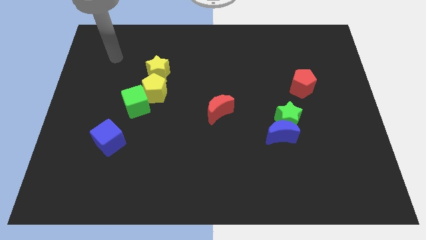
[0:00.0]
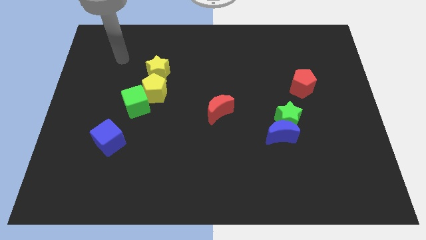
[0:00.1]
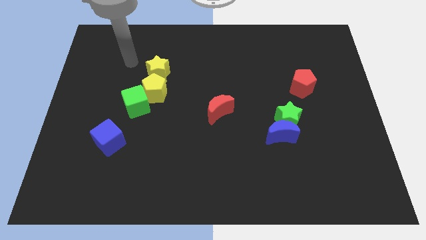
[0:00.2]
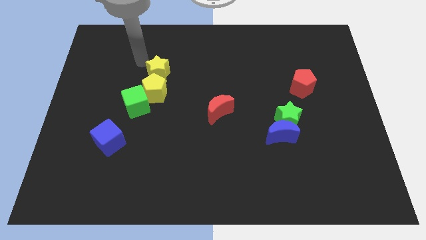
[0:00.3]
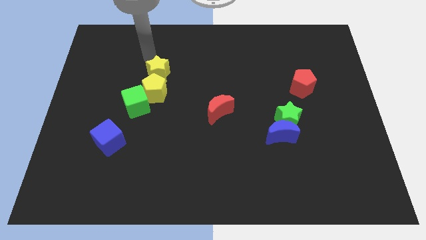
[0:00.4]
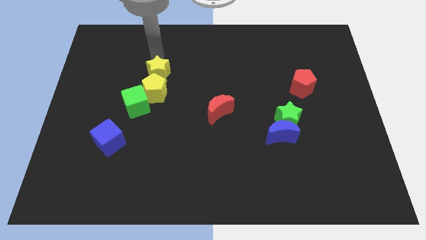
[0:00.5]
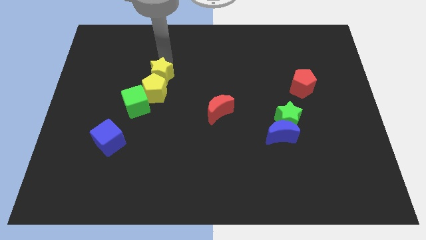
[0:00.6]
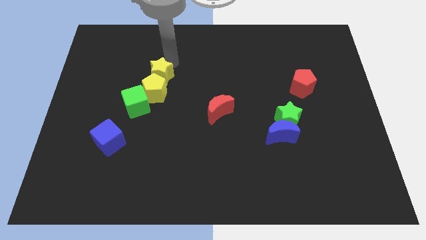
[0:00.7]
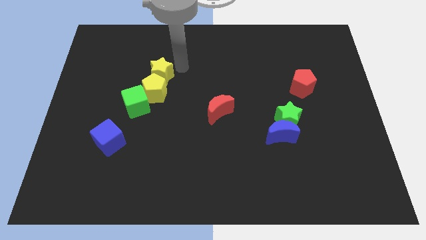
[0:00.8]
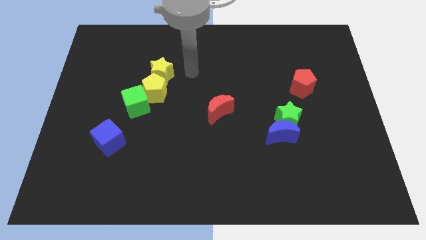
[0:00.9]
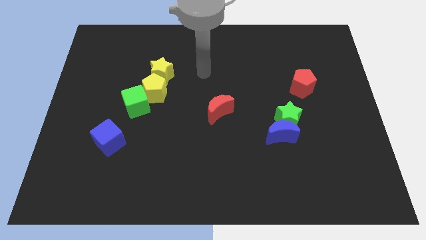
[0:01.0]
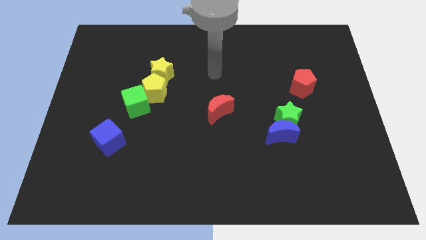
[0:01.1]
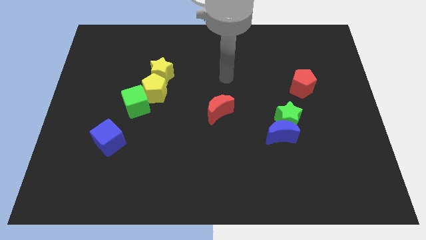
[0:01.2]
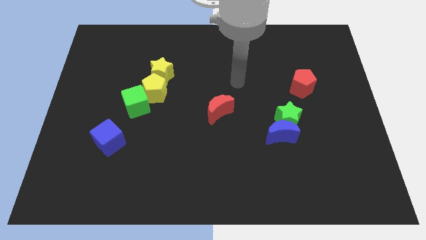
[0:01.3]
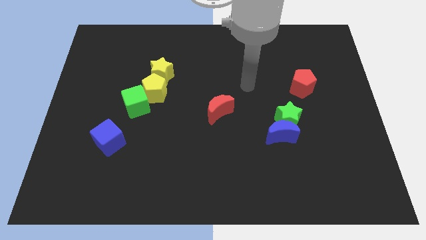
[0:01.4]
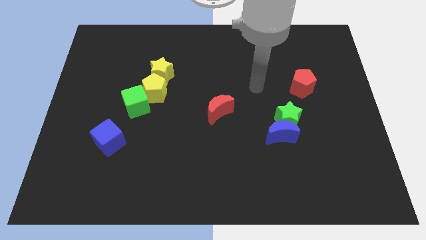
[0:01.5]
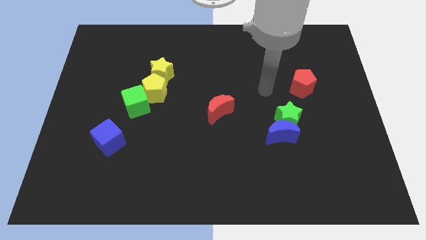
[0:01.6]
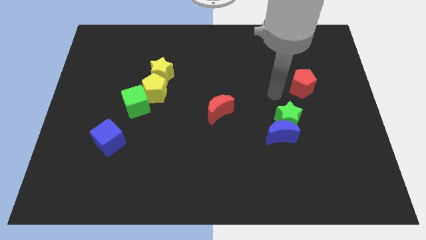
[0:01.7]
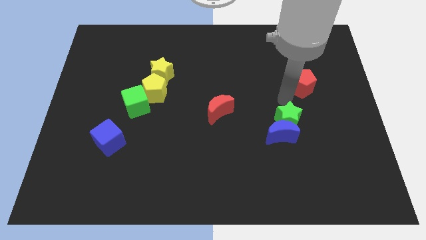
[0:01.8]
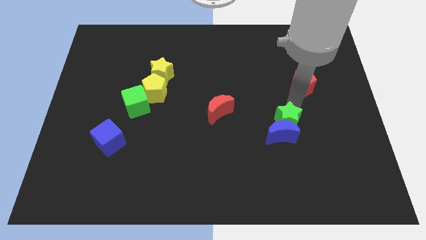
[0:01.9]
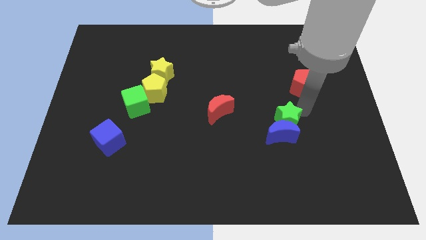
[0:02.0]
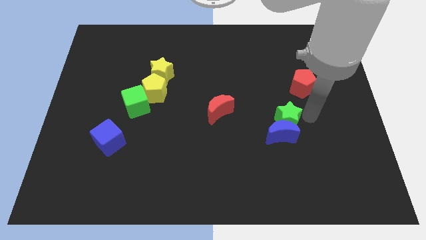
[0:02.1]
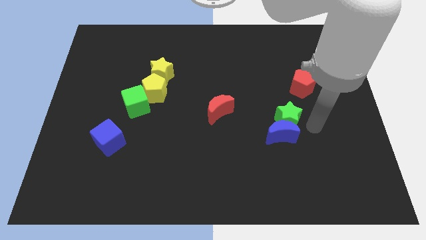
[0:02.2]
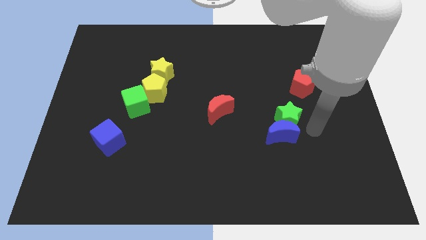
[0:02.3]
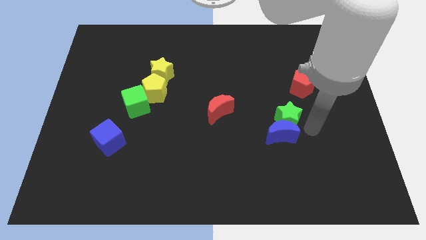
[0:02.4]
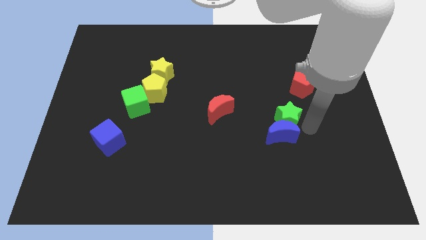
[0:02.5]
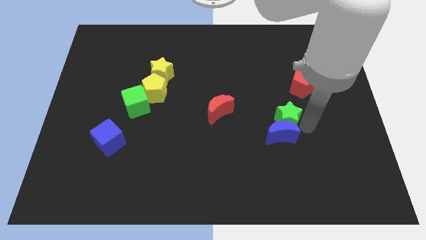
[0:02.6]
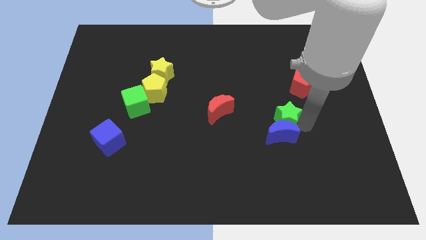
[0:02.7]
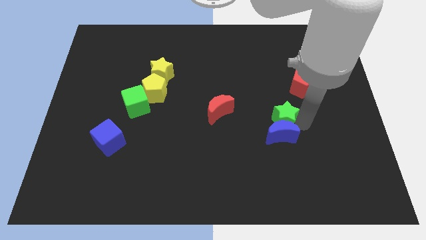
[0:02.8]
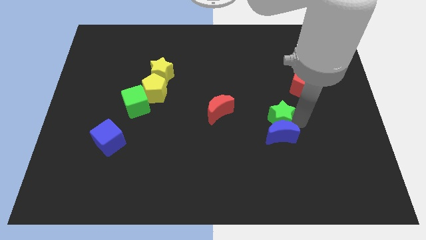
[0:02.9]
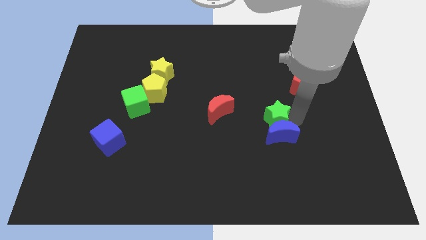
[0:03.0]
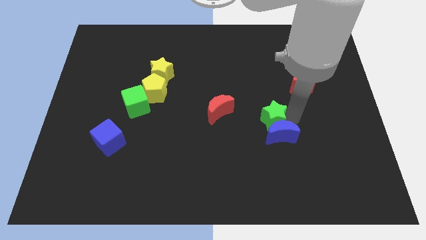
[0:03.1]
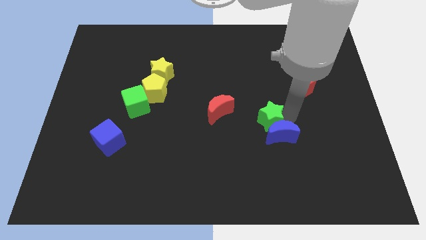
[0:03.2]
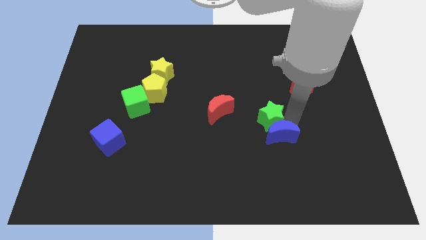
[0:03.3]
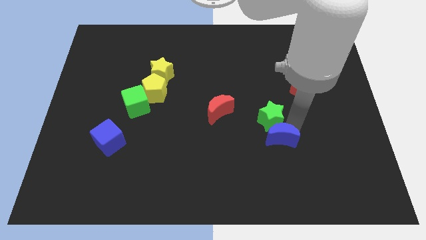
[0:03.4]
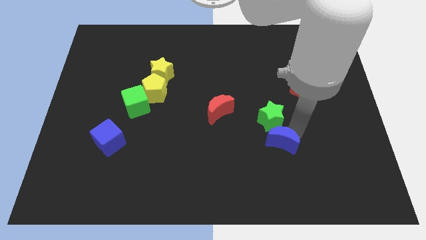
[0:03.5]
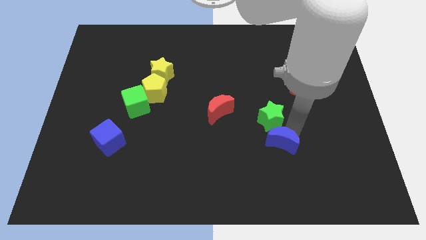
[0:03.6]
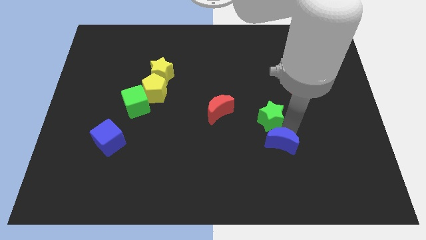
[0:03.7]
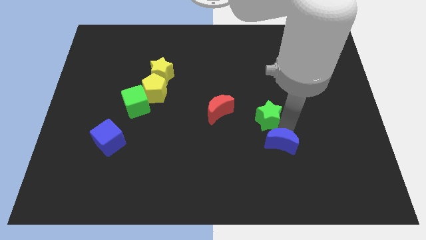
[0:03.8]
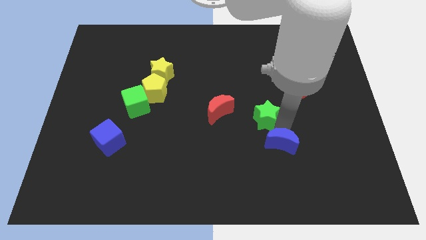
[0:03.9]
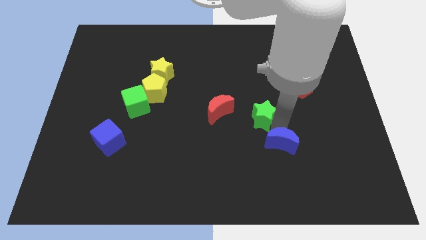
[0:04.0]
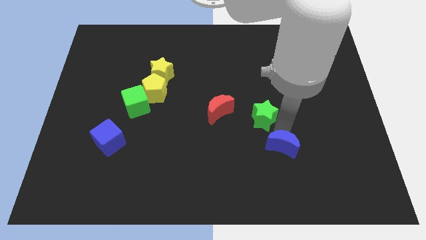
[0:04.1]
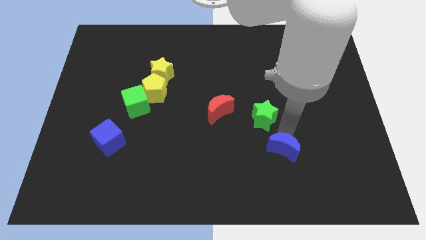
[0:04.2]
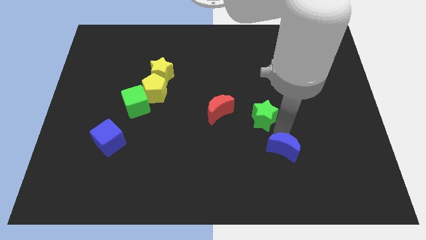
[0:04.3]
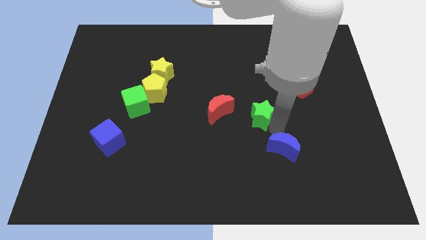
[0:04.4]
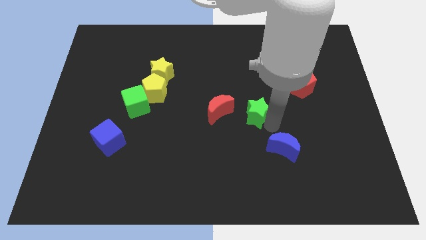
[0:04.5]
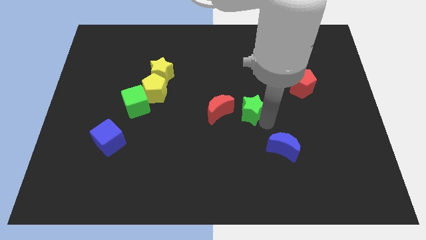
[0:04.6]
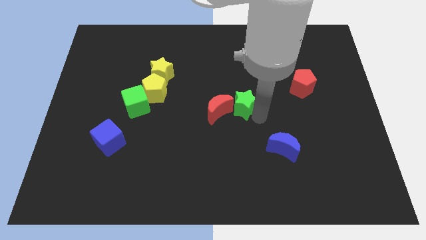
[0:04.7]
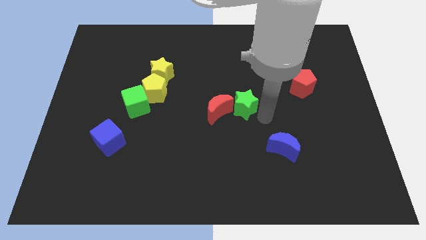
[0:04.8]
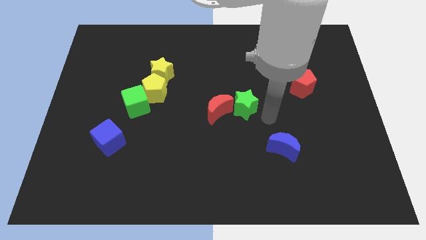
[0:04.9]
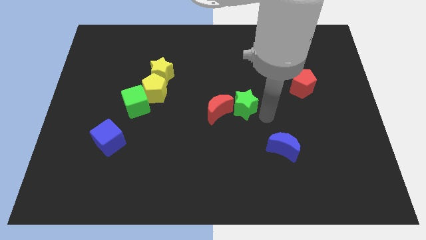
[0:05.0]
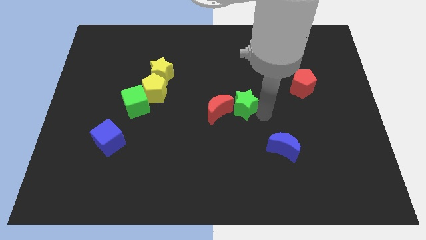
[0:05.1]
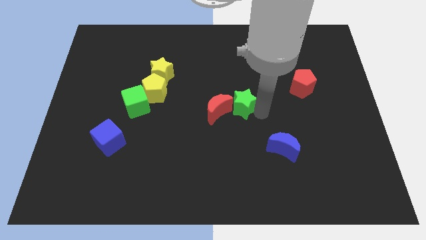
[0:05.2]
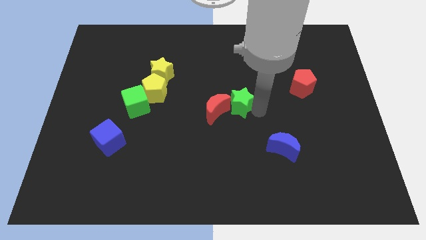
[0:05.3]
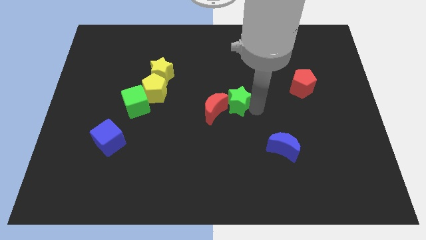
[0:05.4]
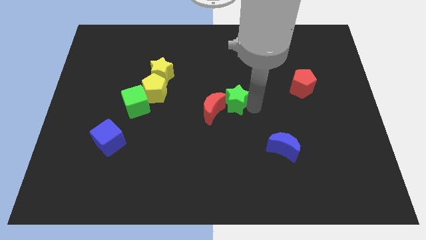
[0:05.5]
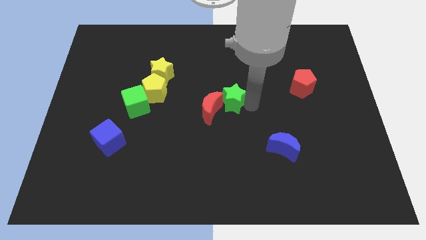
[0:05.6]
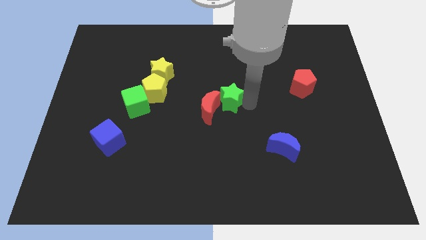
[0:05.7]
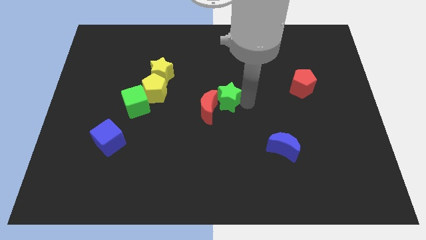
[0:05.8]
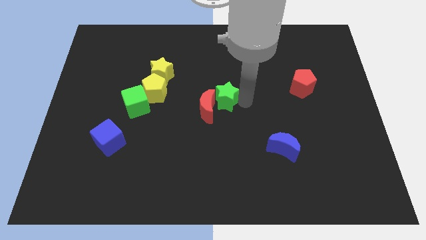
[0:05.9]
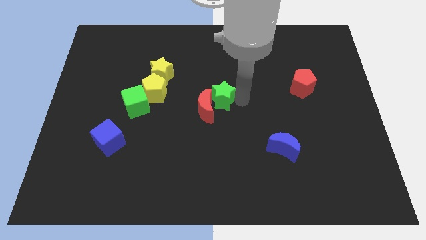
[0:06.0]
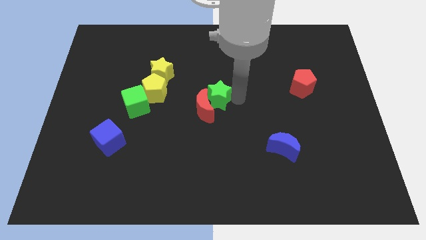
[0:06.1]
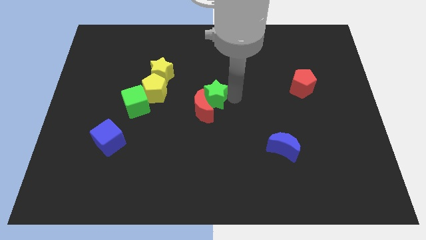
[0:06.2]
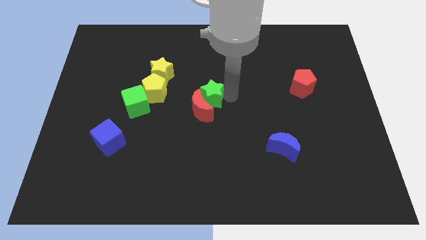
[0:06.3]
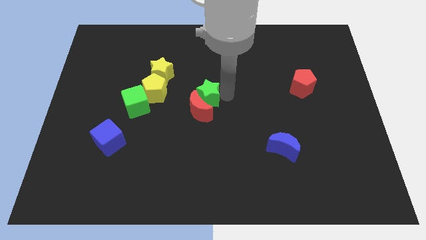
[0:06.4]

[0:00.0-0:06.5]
put the green star diagonally up and to the left of the red moon
